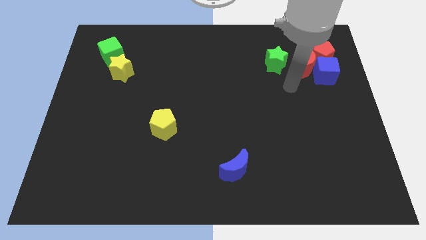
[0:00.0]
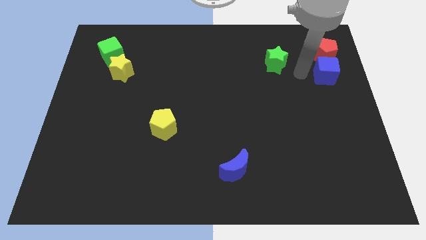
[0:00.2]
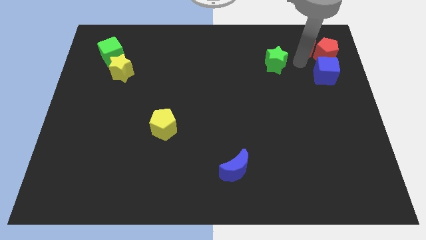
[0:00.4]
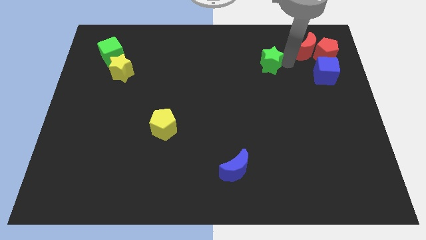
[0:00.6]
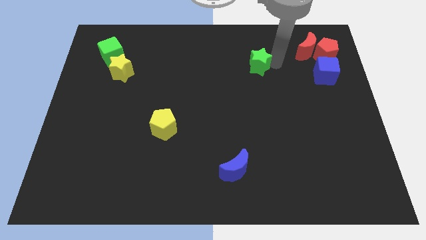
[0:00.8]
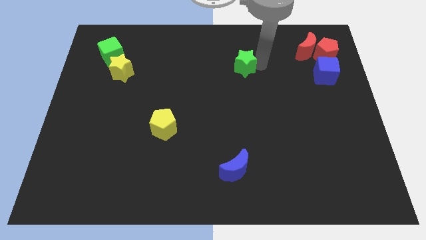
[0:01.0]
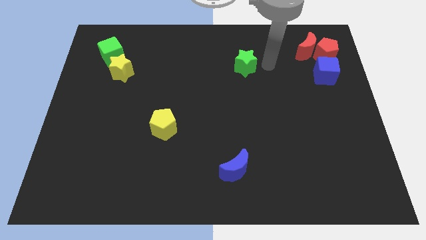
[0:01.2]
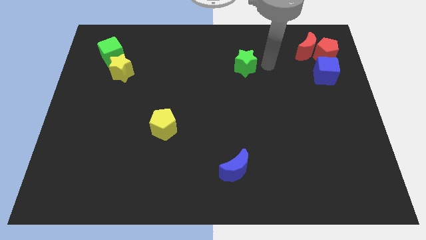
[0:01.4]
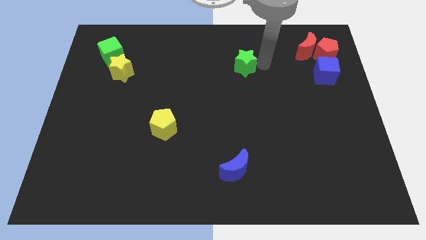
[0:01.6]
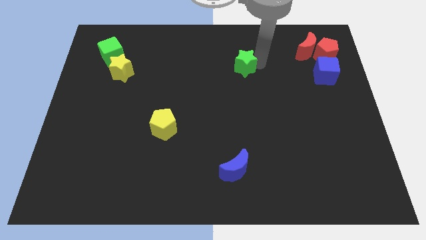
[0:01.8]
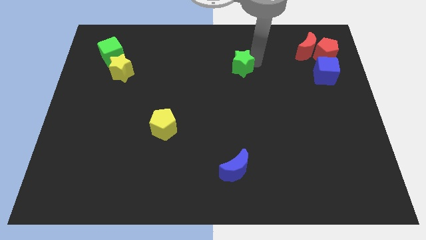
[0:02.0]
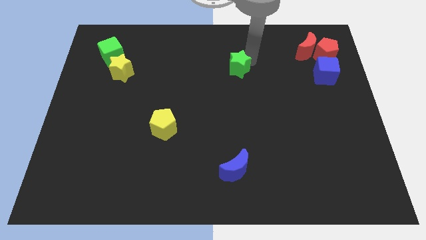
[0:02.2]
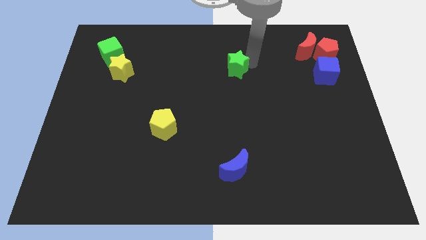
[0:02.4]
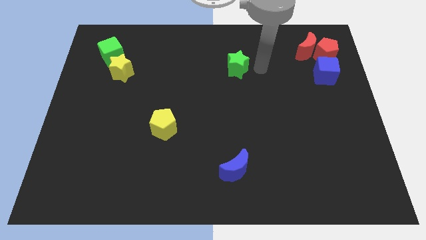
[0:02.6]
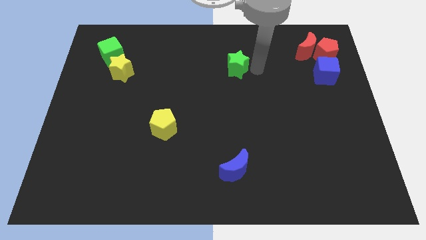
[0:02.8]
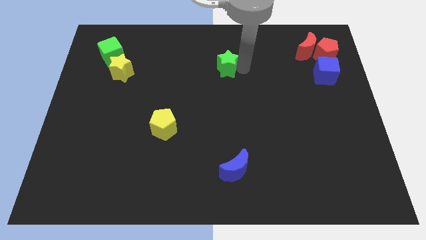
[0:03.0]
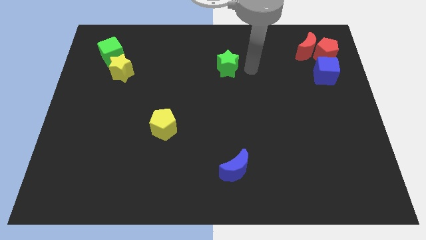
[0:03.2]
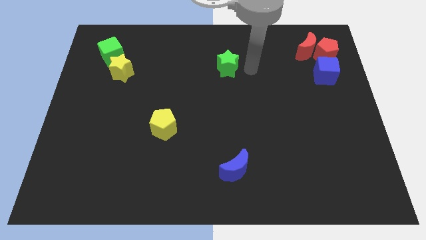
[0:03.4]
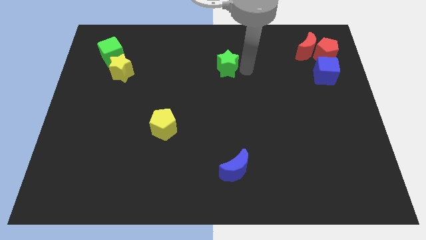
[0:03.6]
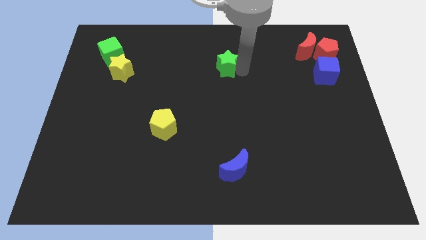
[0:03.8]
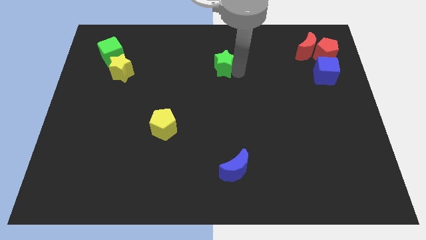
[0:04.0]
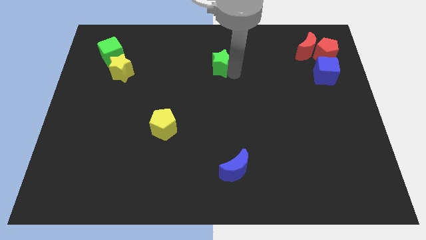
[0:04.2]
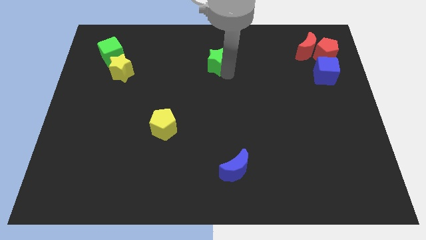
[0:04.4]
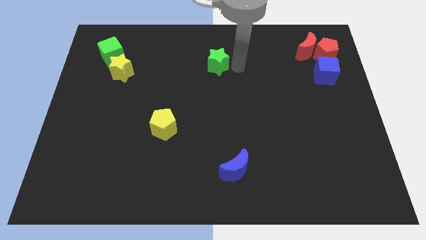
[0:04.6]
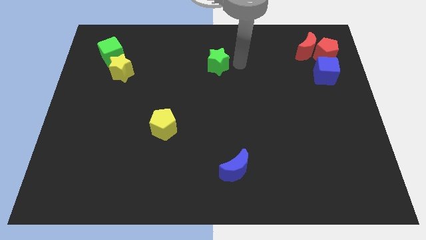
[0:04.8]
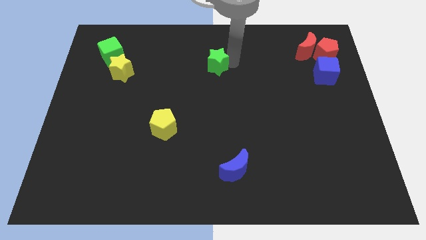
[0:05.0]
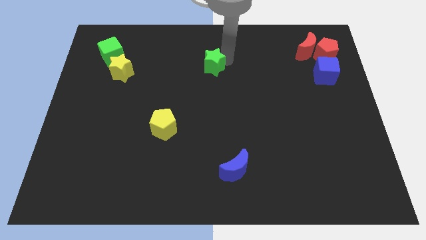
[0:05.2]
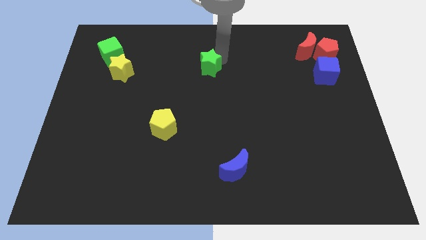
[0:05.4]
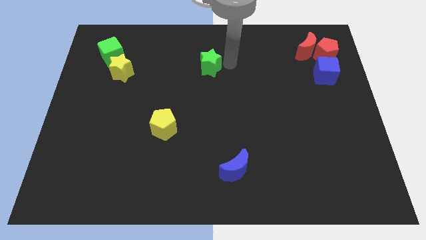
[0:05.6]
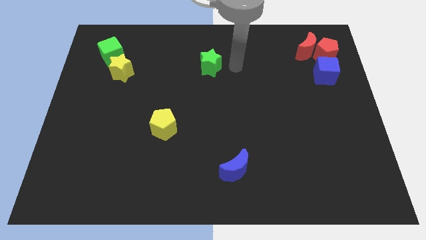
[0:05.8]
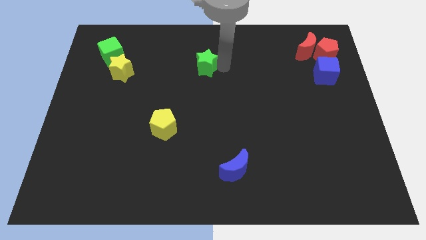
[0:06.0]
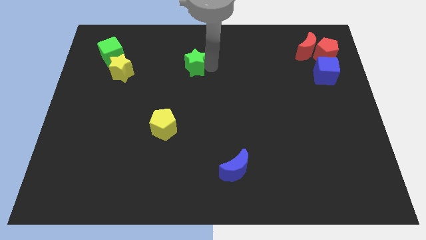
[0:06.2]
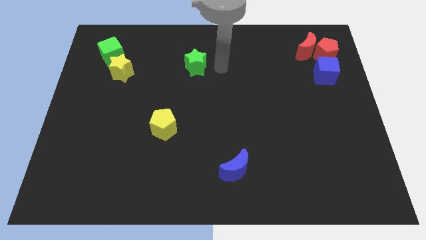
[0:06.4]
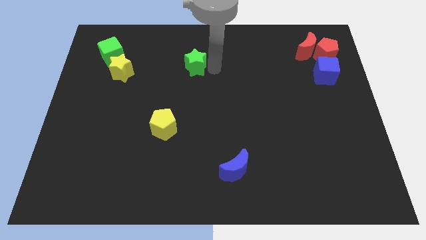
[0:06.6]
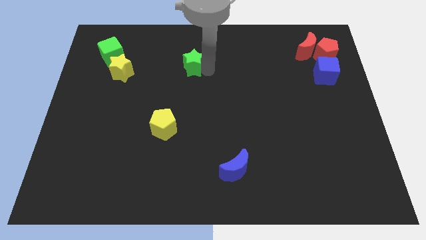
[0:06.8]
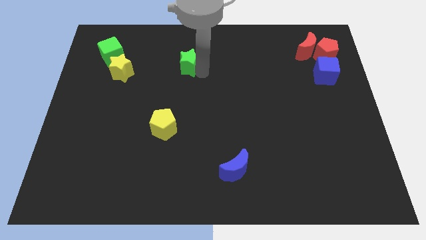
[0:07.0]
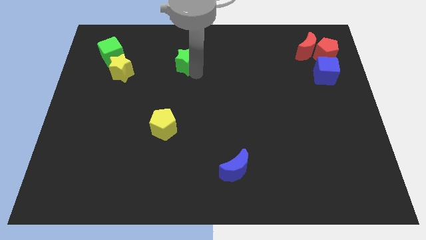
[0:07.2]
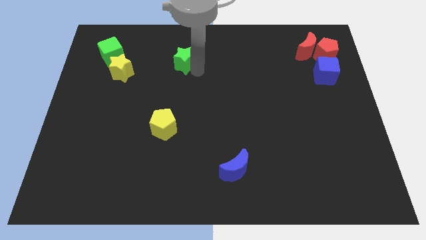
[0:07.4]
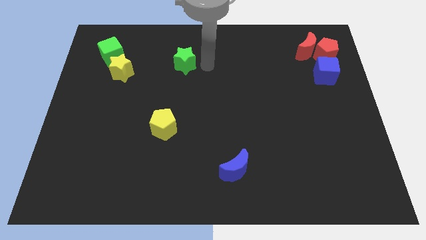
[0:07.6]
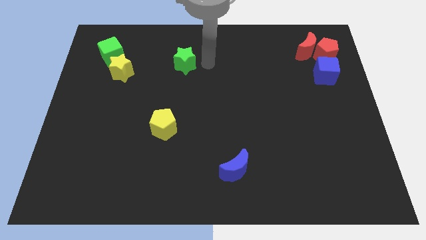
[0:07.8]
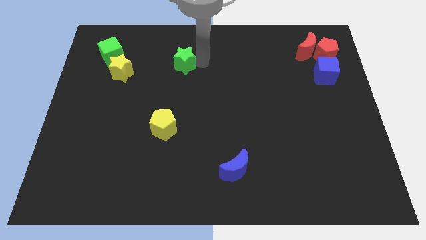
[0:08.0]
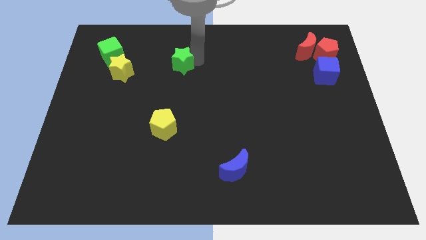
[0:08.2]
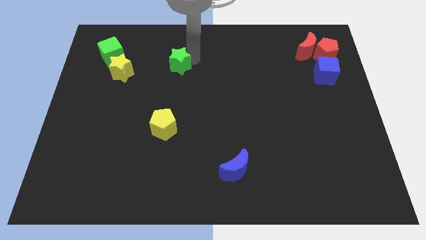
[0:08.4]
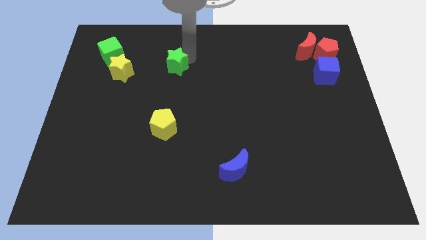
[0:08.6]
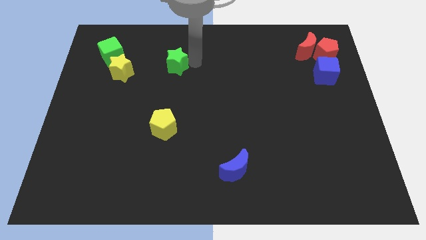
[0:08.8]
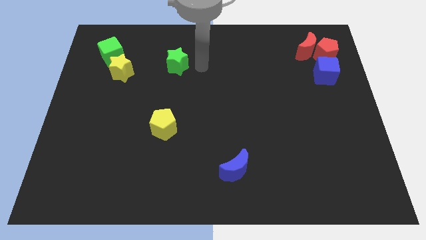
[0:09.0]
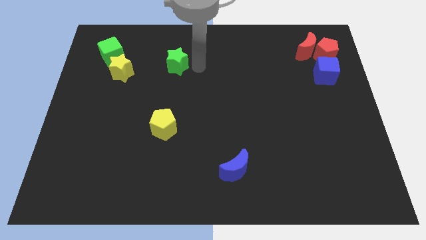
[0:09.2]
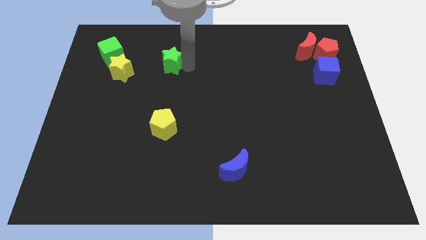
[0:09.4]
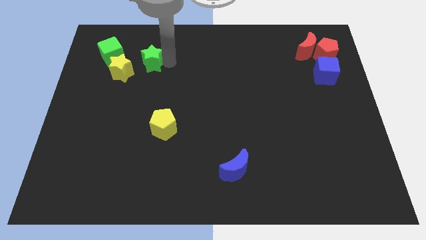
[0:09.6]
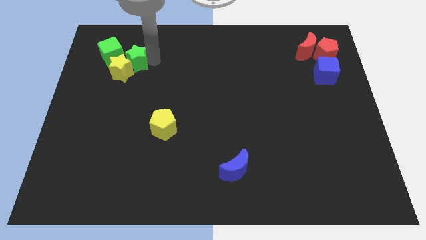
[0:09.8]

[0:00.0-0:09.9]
slide the green star to the yellow star

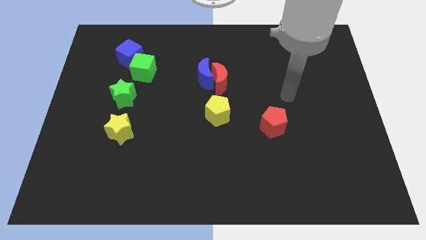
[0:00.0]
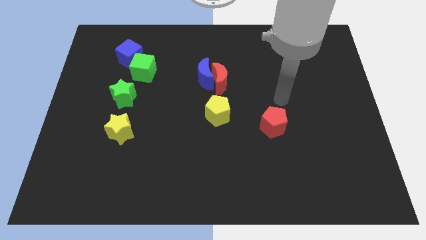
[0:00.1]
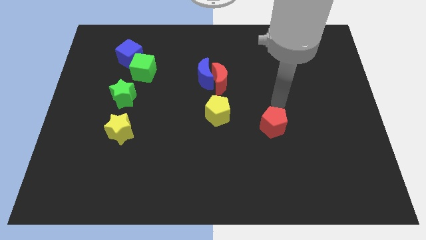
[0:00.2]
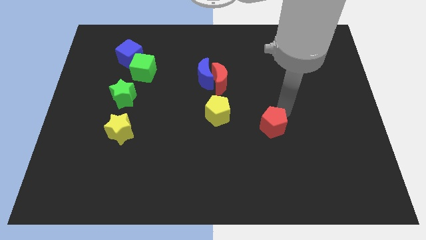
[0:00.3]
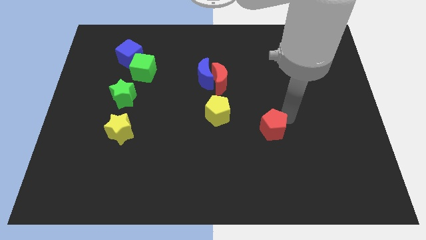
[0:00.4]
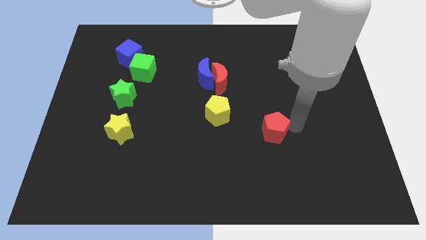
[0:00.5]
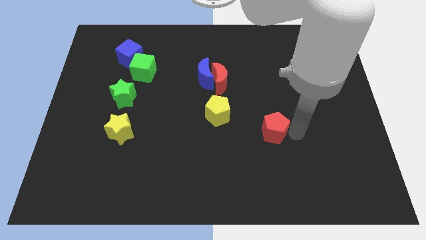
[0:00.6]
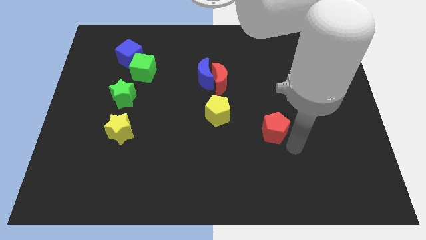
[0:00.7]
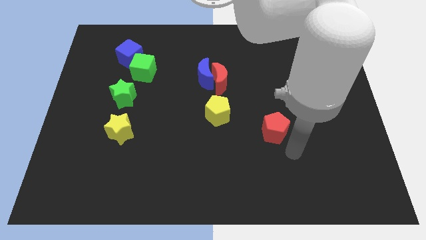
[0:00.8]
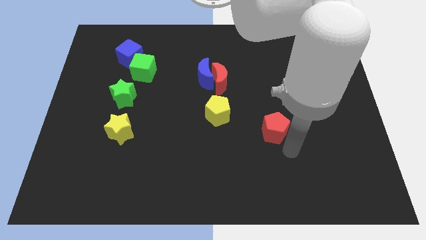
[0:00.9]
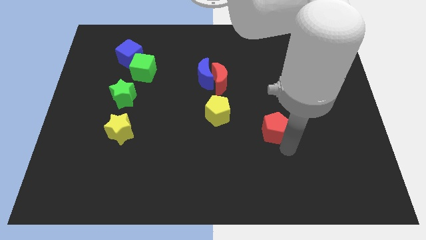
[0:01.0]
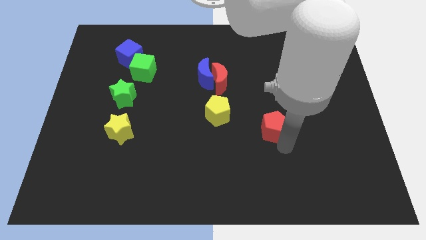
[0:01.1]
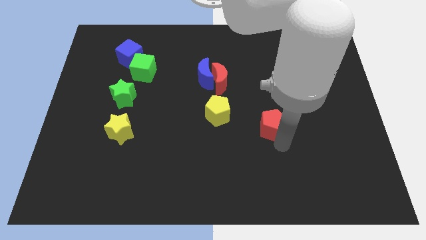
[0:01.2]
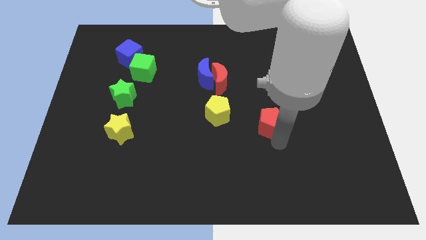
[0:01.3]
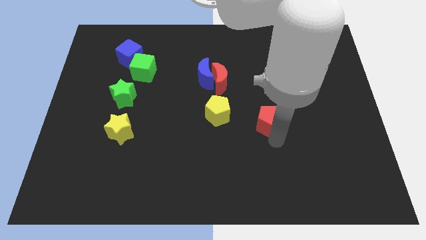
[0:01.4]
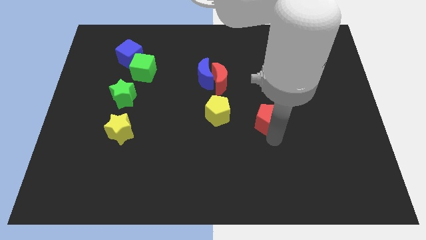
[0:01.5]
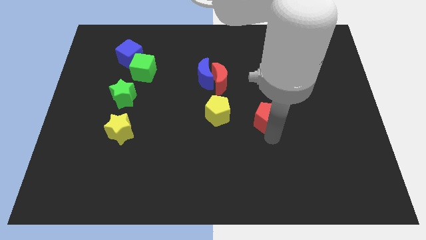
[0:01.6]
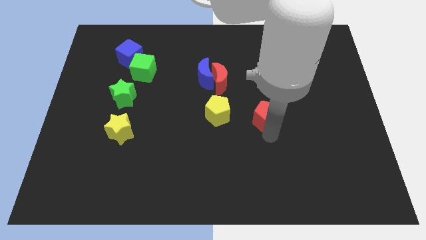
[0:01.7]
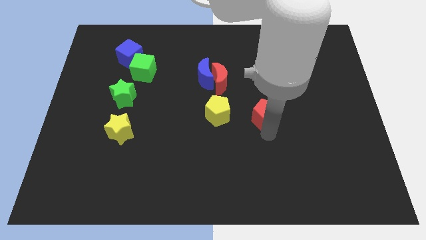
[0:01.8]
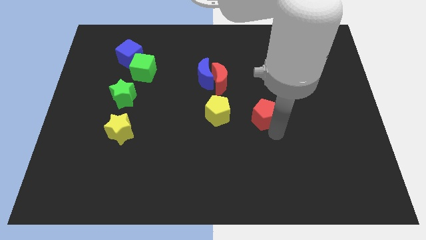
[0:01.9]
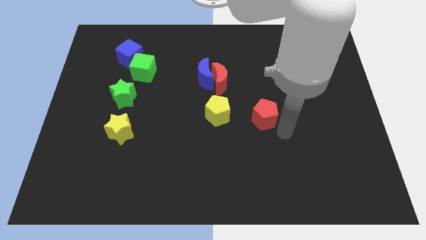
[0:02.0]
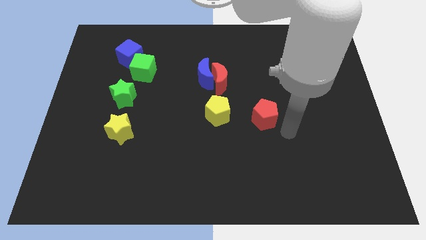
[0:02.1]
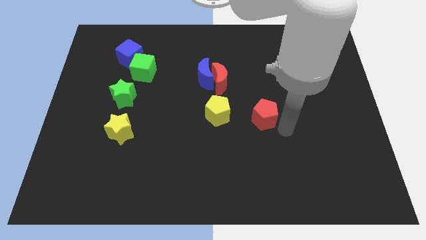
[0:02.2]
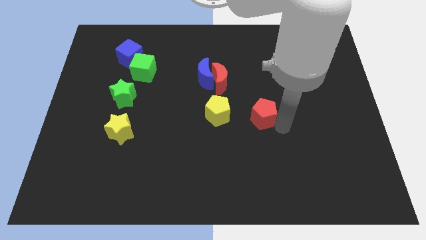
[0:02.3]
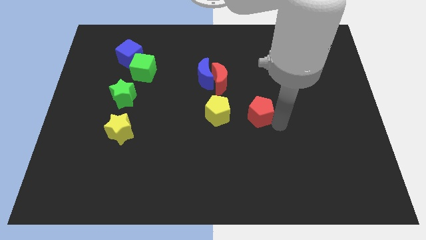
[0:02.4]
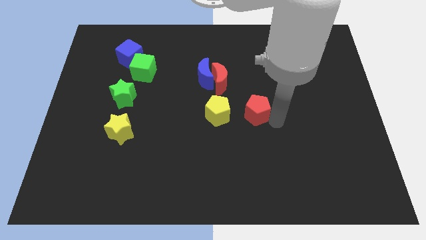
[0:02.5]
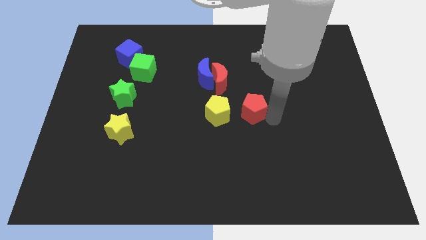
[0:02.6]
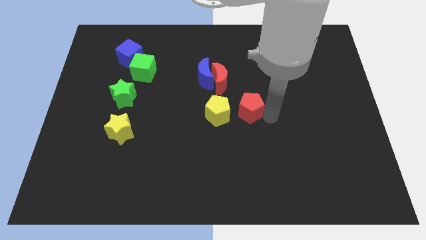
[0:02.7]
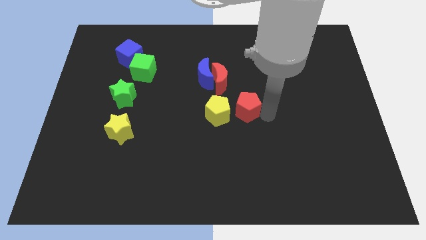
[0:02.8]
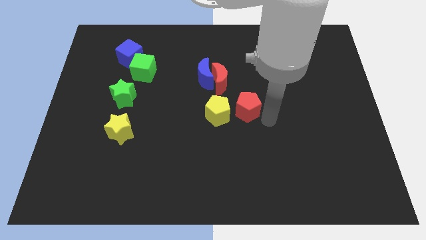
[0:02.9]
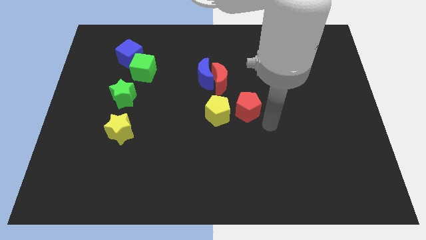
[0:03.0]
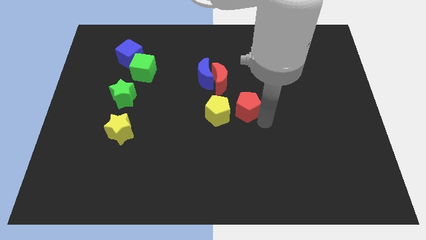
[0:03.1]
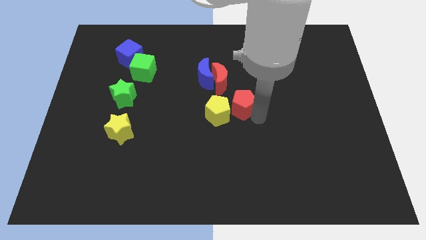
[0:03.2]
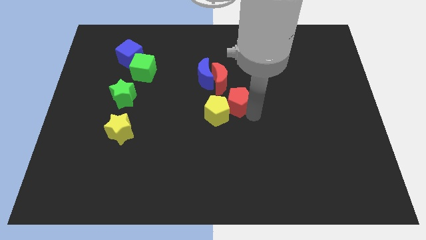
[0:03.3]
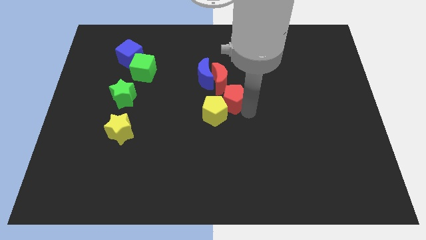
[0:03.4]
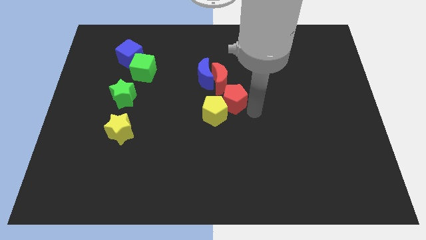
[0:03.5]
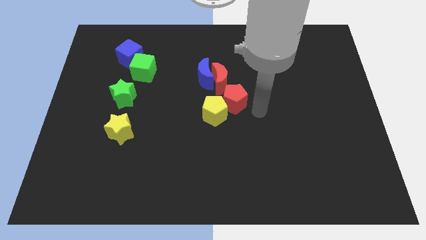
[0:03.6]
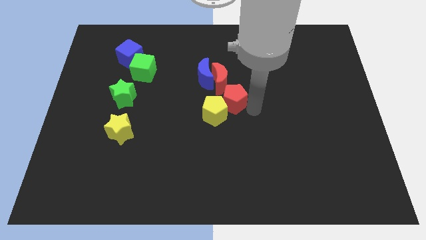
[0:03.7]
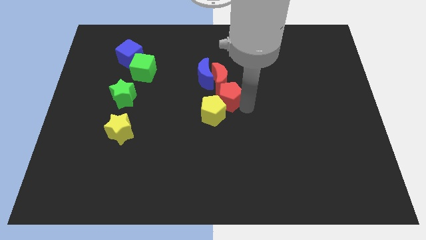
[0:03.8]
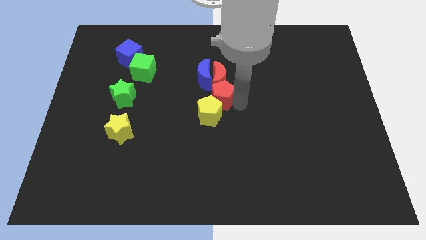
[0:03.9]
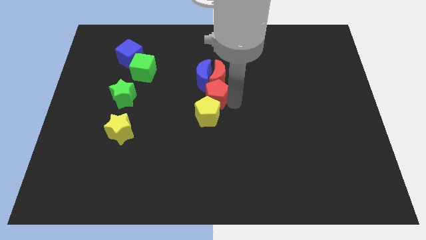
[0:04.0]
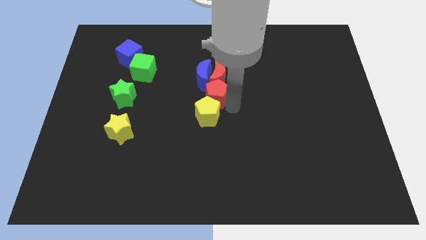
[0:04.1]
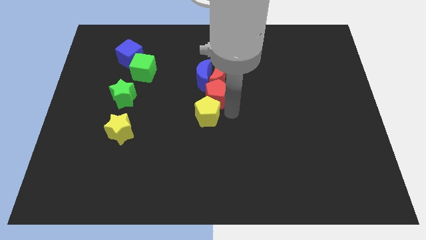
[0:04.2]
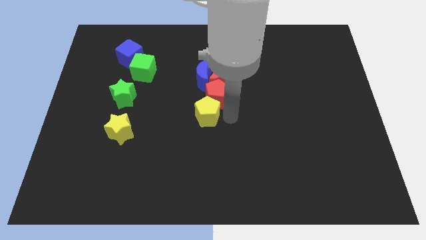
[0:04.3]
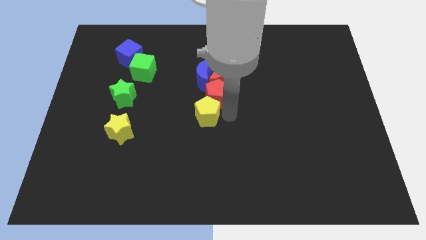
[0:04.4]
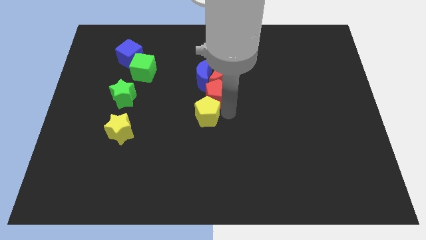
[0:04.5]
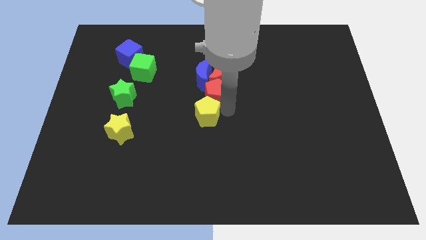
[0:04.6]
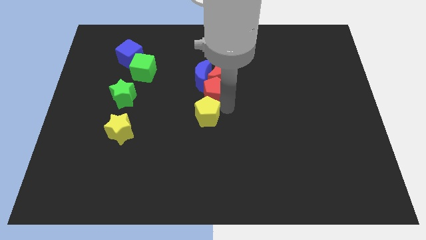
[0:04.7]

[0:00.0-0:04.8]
move the red pentagon to the blue moon
